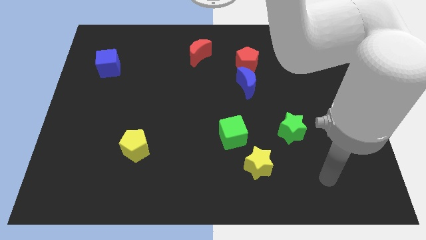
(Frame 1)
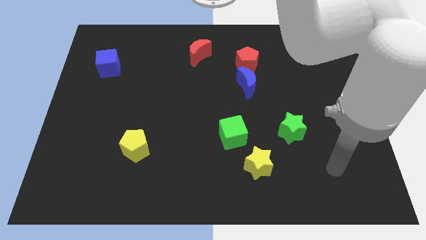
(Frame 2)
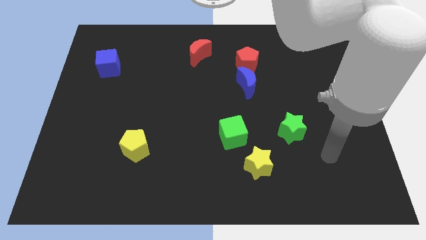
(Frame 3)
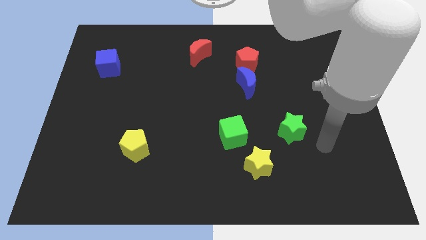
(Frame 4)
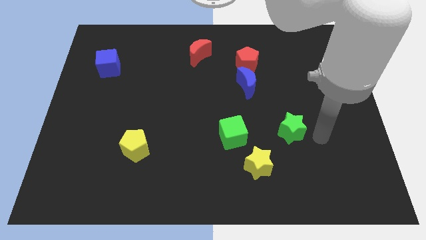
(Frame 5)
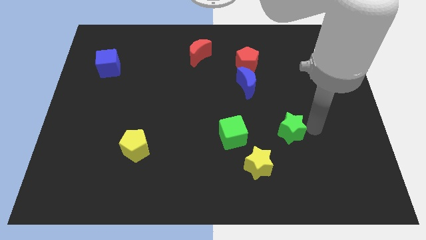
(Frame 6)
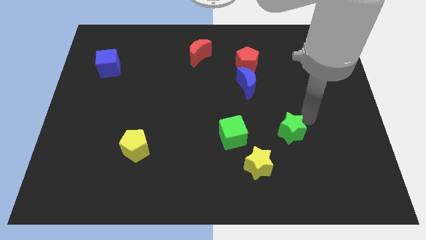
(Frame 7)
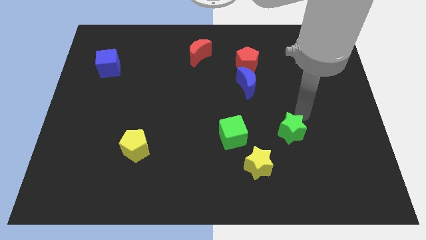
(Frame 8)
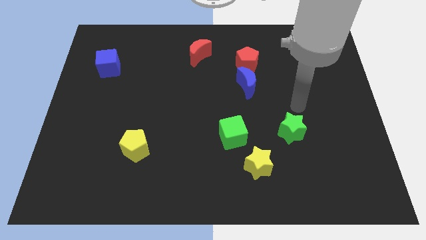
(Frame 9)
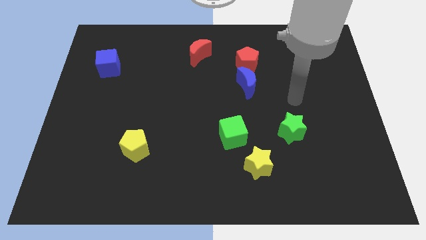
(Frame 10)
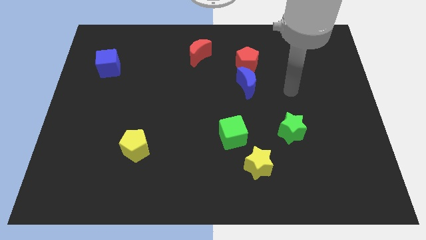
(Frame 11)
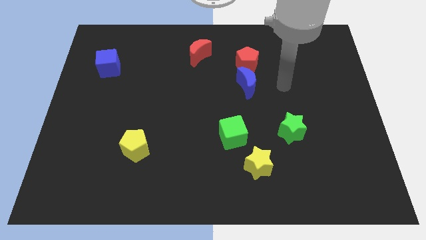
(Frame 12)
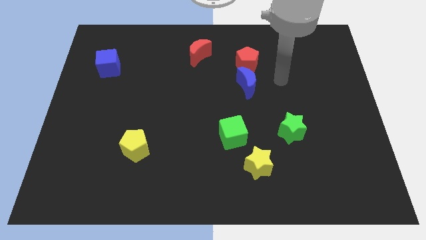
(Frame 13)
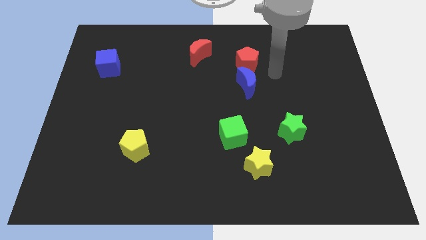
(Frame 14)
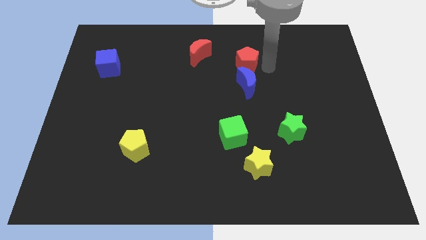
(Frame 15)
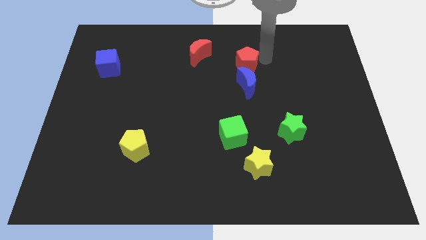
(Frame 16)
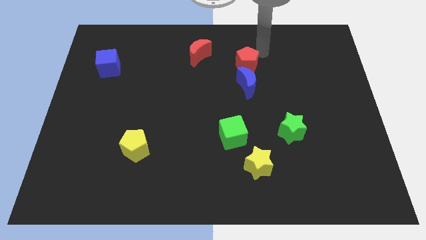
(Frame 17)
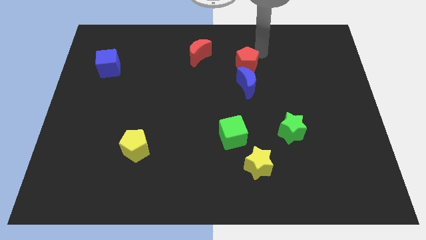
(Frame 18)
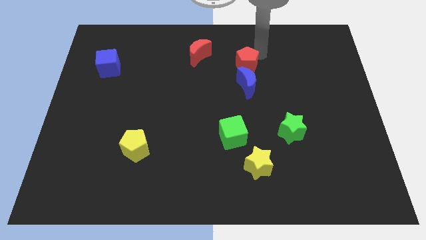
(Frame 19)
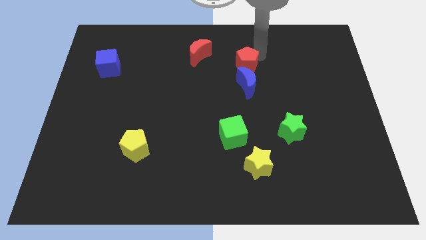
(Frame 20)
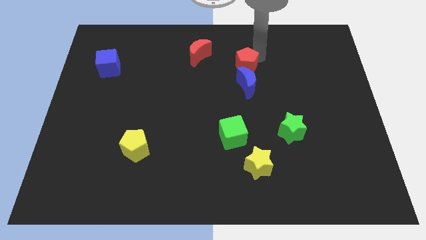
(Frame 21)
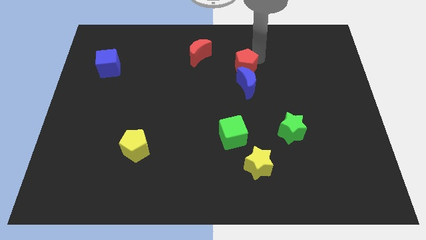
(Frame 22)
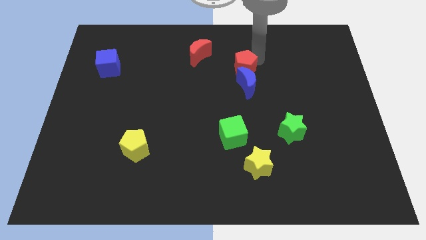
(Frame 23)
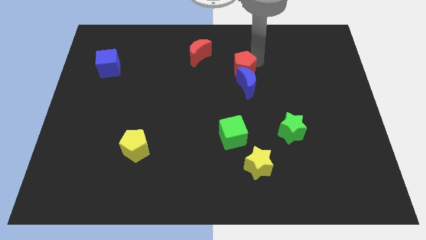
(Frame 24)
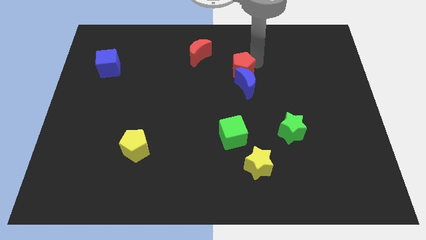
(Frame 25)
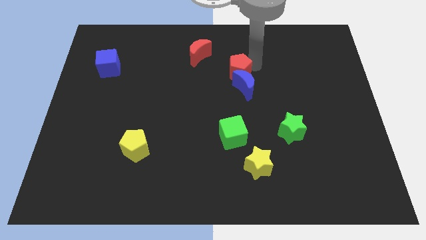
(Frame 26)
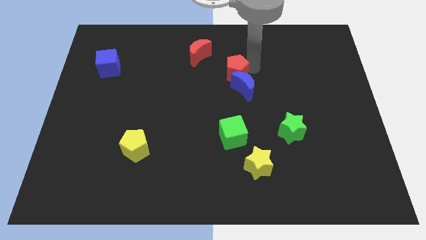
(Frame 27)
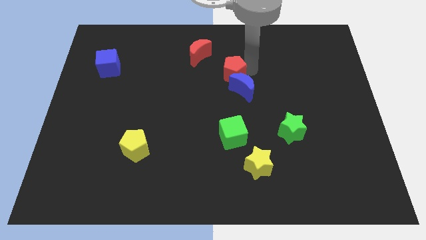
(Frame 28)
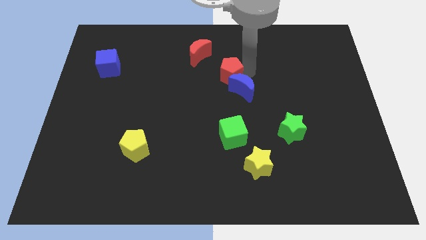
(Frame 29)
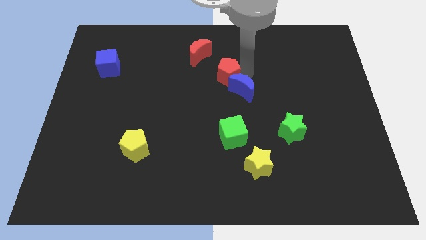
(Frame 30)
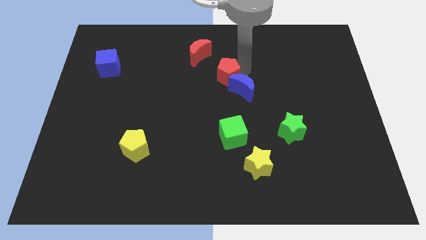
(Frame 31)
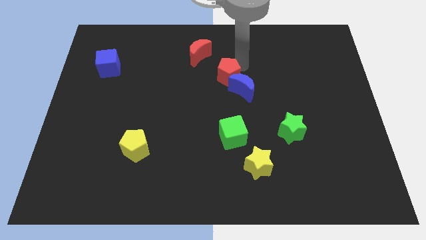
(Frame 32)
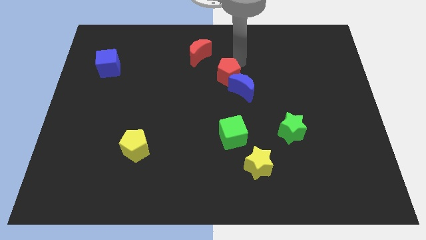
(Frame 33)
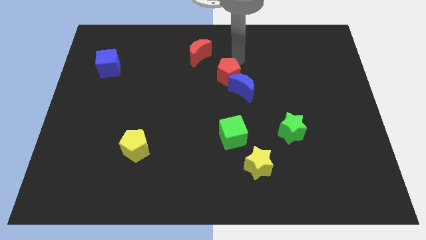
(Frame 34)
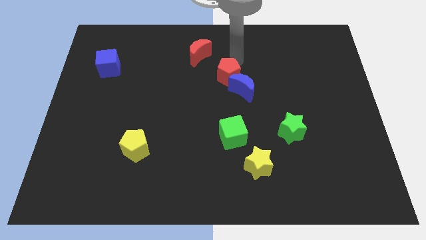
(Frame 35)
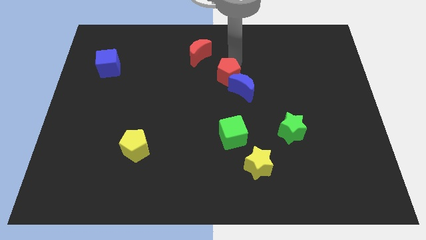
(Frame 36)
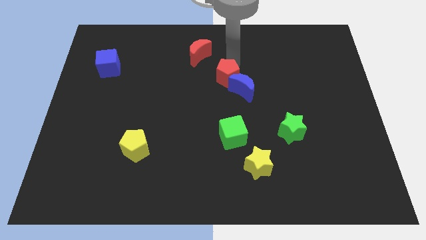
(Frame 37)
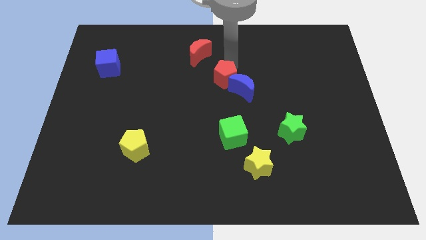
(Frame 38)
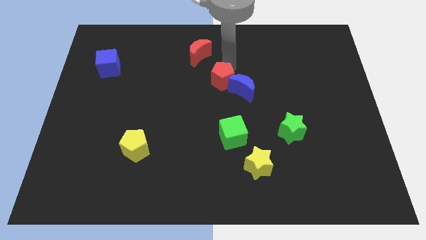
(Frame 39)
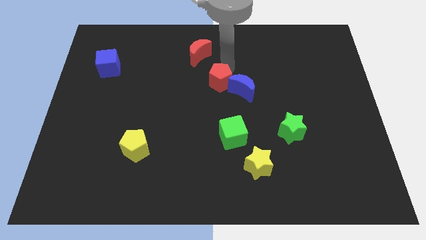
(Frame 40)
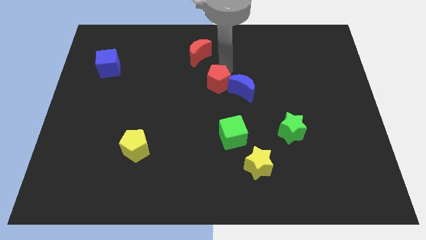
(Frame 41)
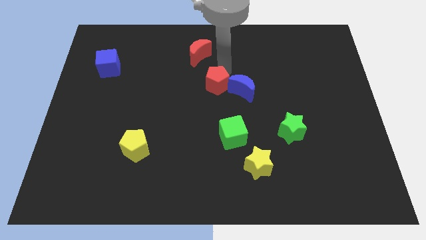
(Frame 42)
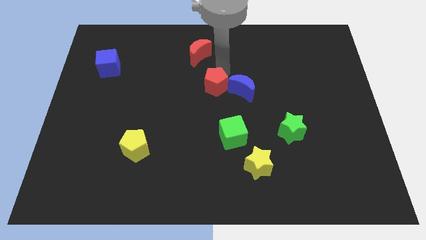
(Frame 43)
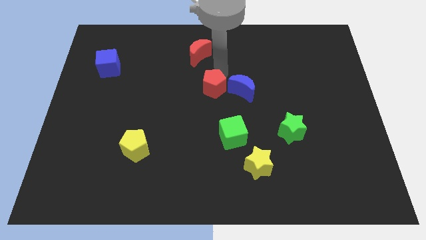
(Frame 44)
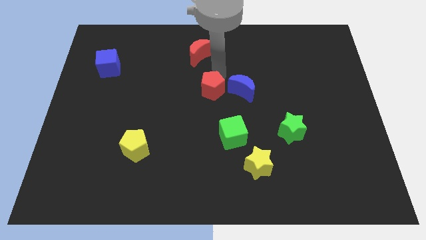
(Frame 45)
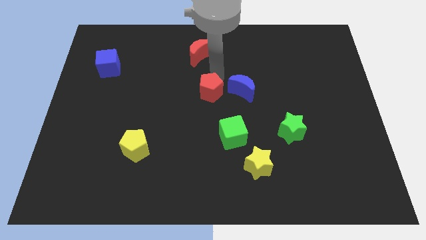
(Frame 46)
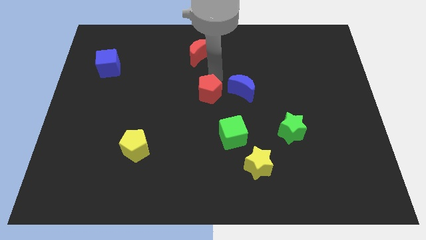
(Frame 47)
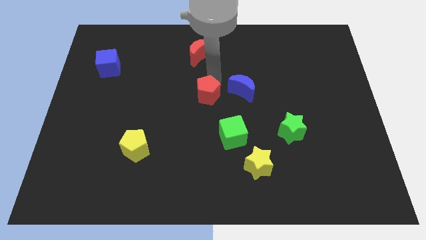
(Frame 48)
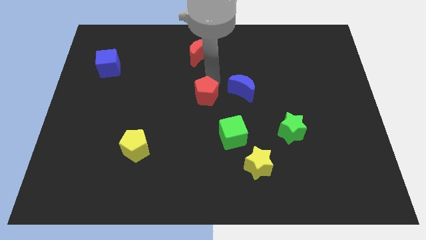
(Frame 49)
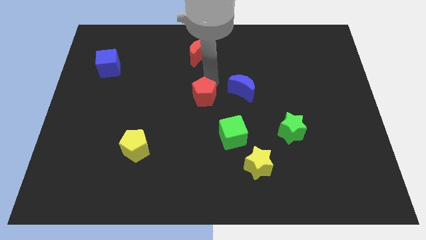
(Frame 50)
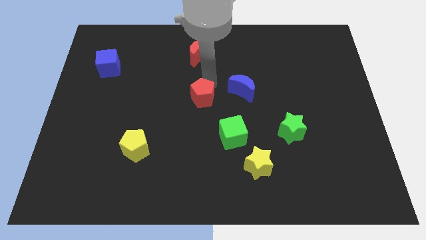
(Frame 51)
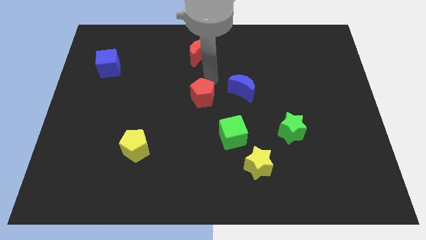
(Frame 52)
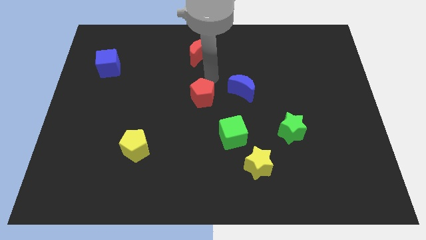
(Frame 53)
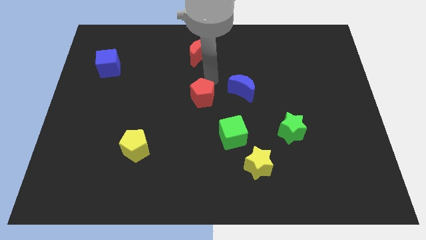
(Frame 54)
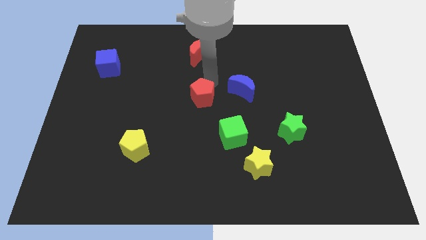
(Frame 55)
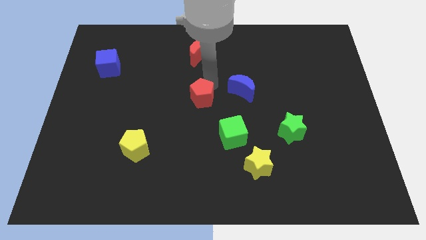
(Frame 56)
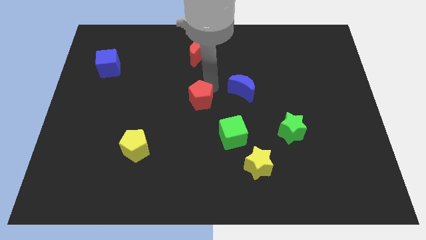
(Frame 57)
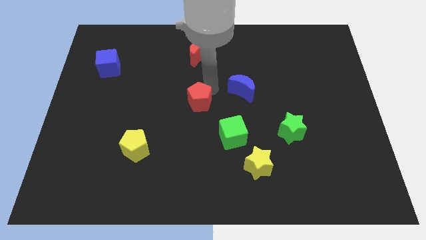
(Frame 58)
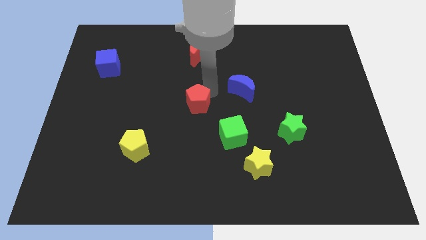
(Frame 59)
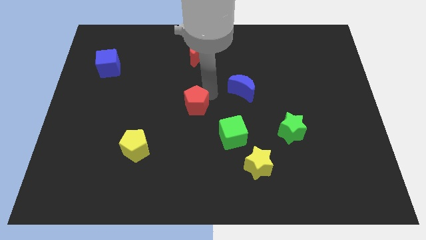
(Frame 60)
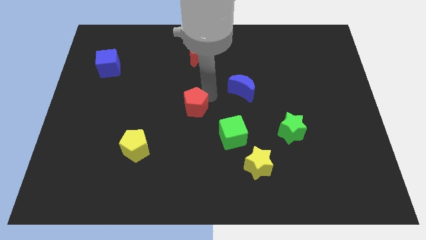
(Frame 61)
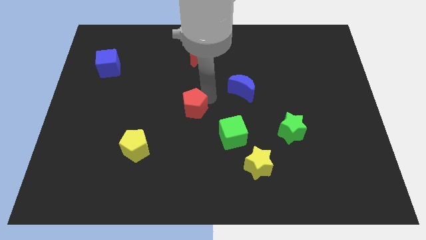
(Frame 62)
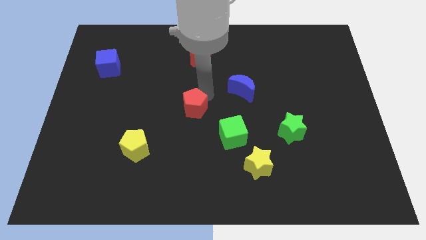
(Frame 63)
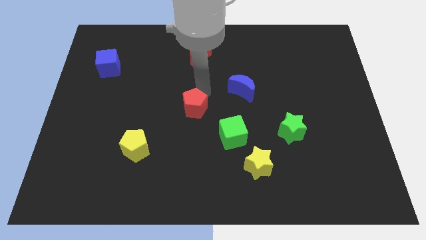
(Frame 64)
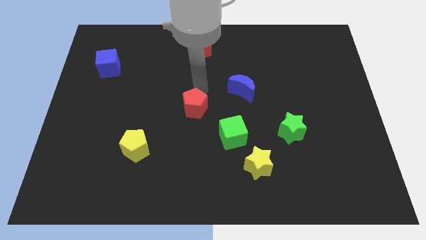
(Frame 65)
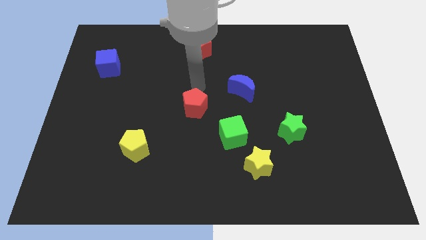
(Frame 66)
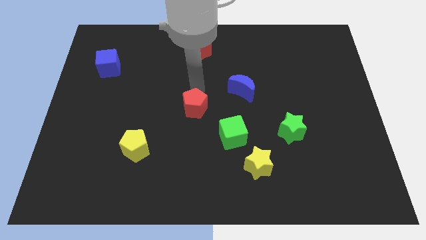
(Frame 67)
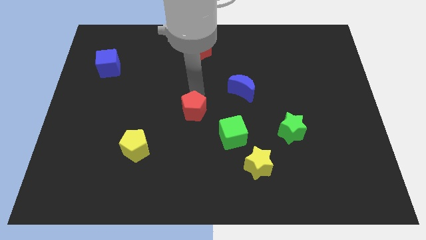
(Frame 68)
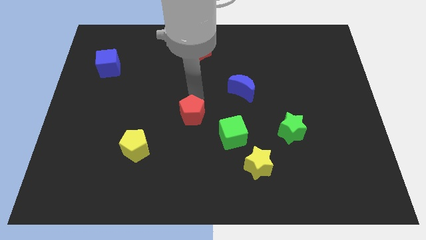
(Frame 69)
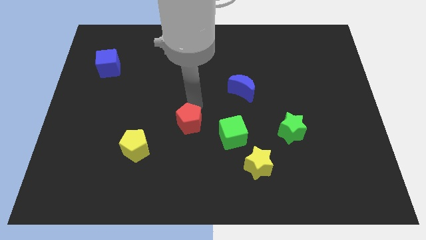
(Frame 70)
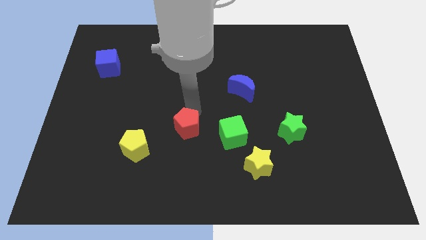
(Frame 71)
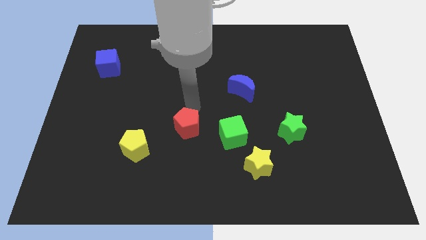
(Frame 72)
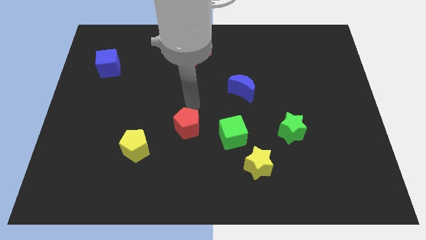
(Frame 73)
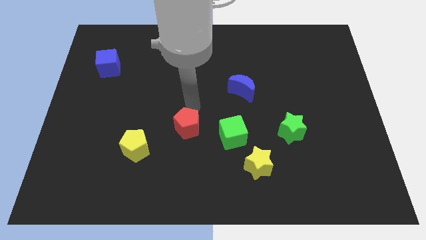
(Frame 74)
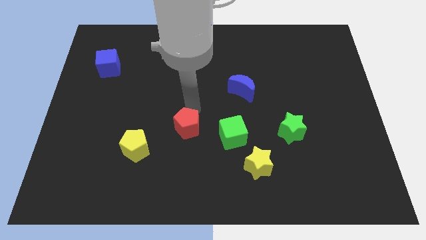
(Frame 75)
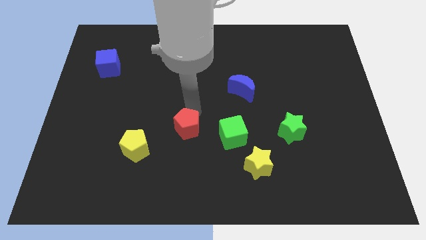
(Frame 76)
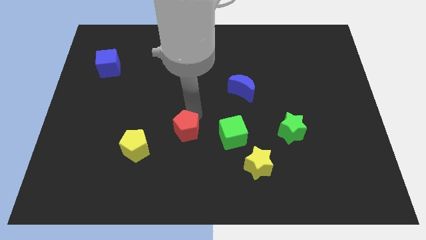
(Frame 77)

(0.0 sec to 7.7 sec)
put the red pentagon right of the yellow pentagon
